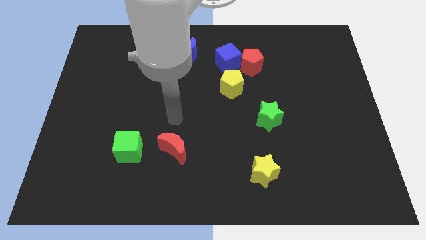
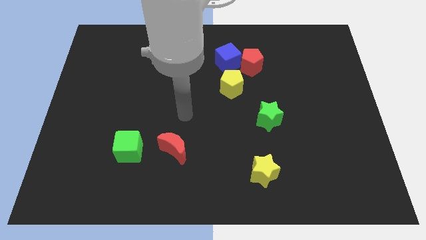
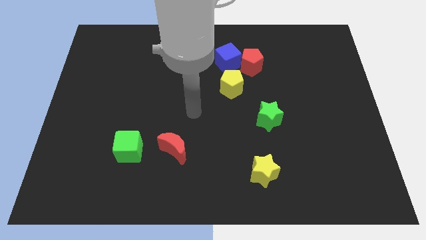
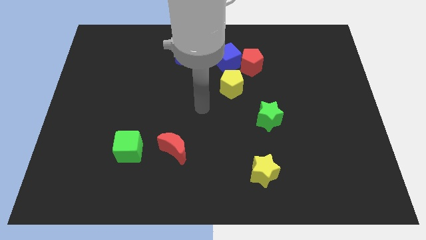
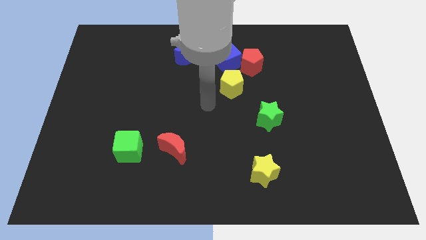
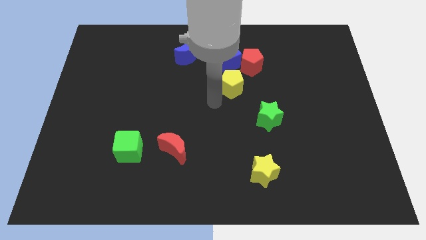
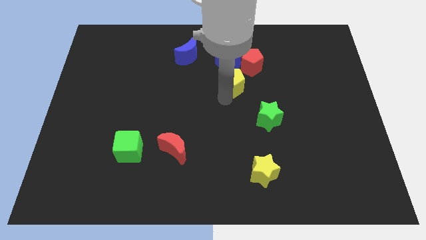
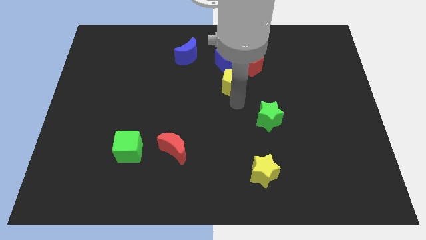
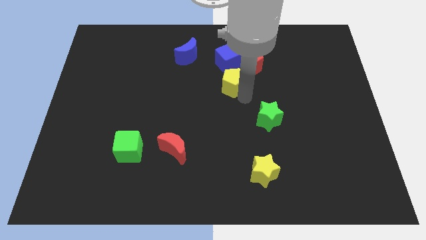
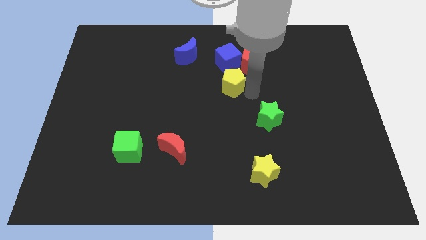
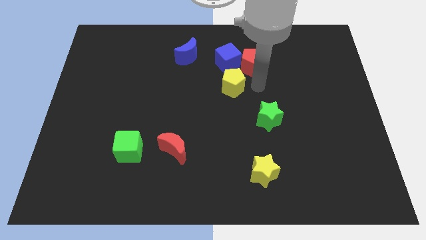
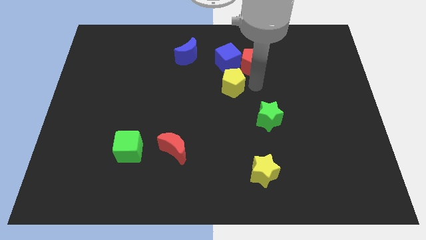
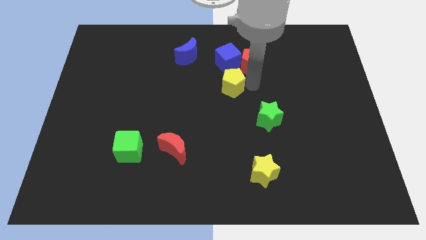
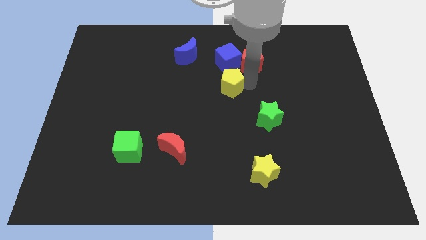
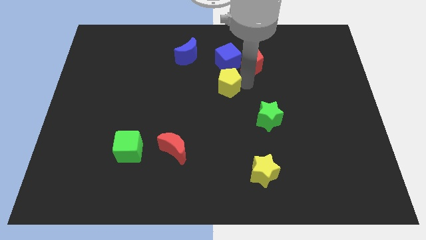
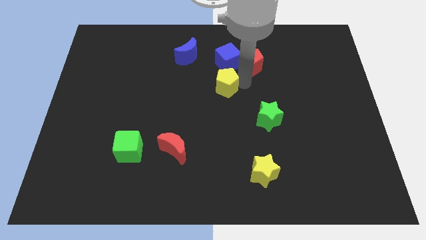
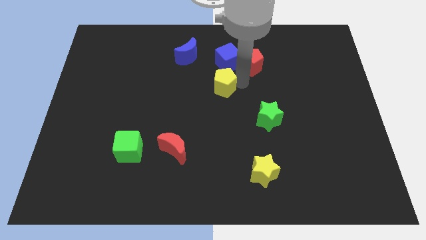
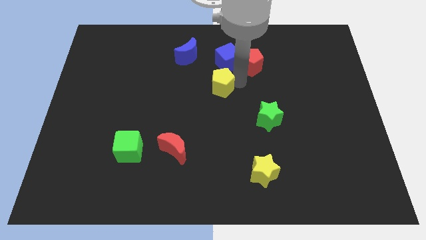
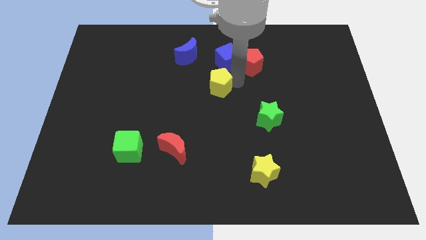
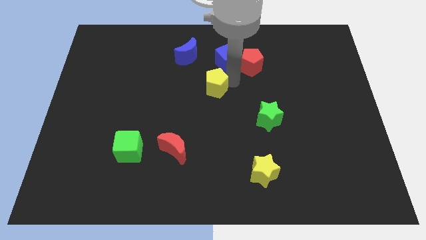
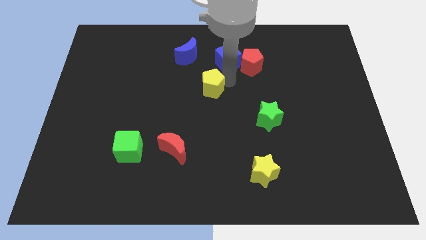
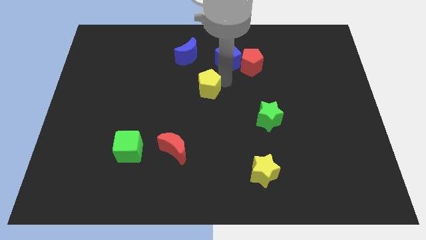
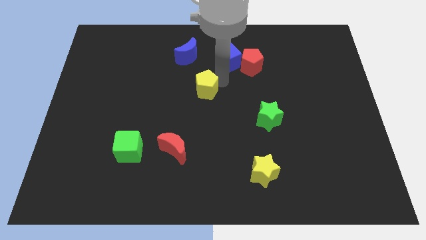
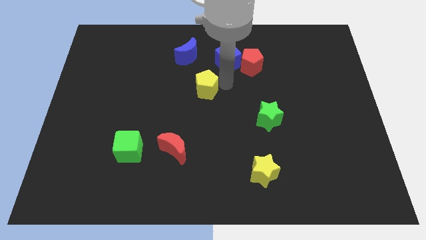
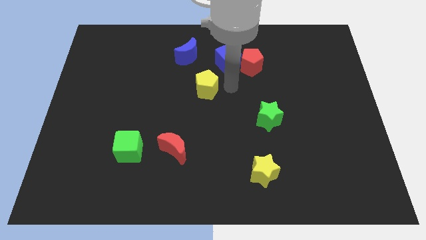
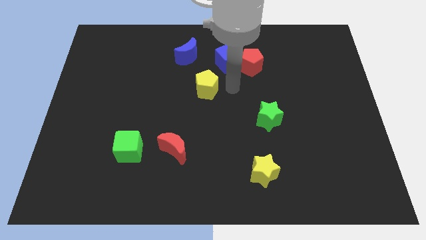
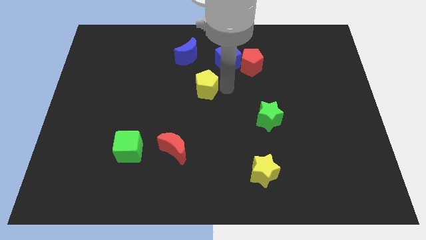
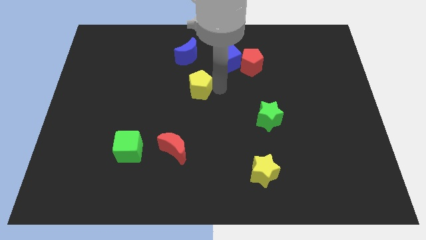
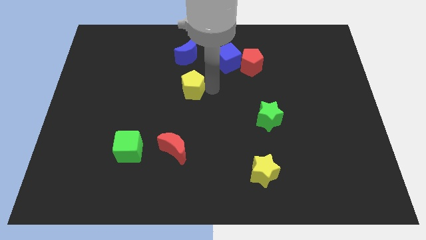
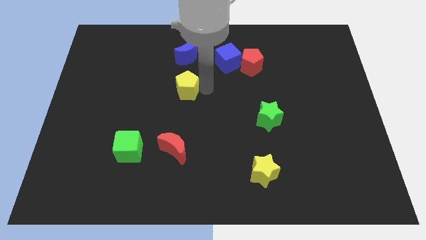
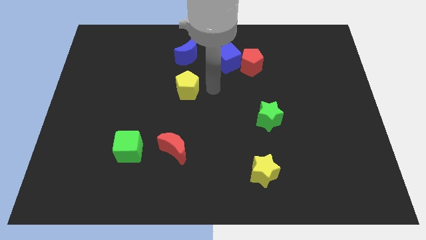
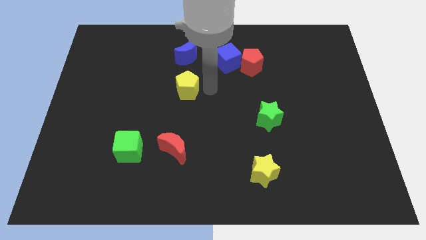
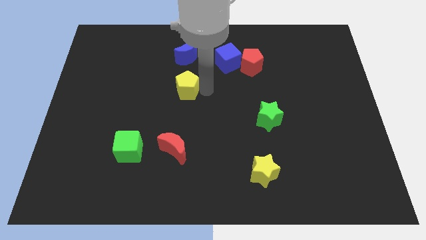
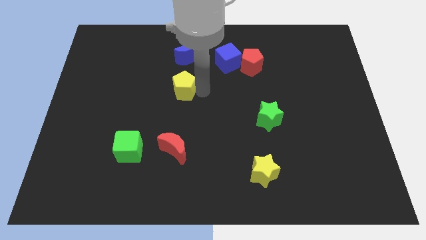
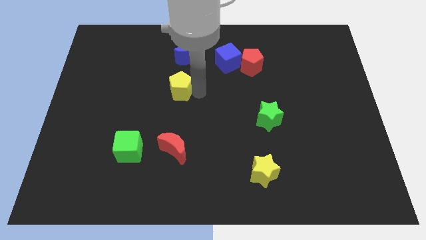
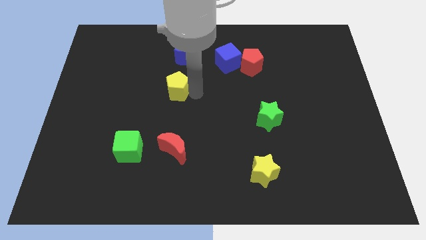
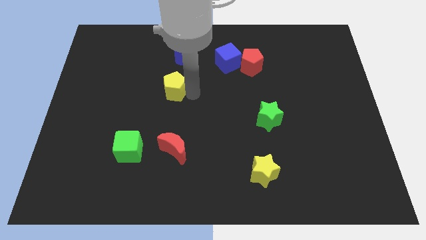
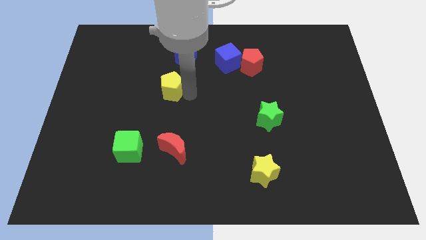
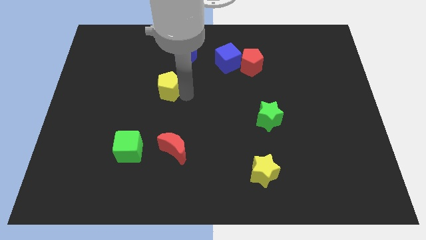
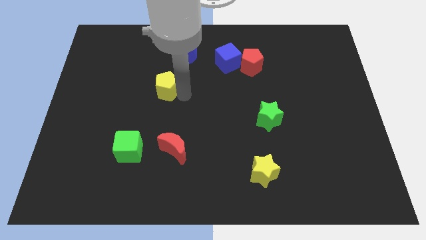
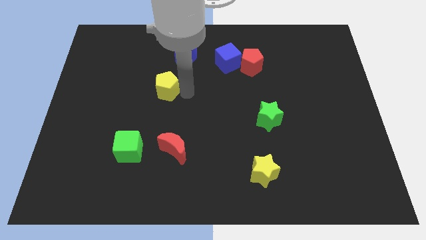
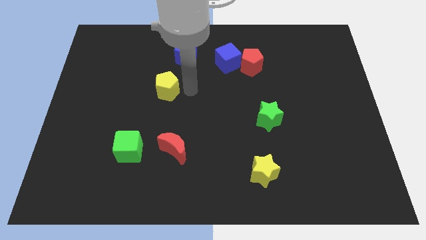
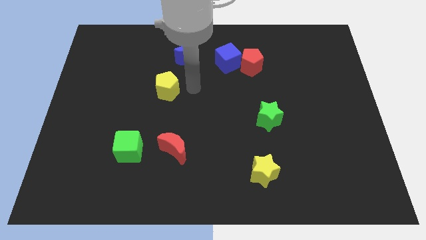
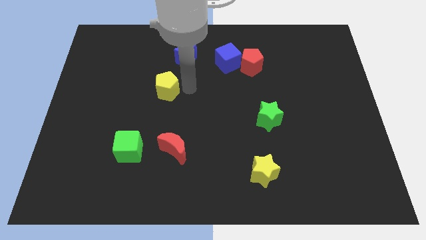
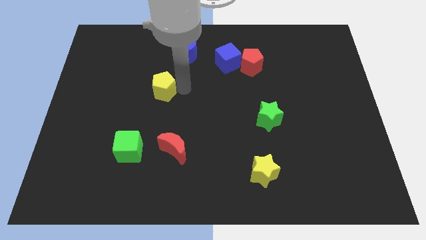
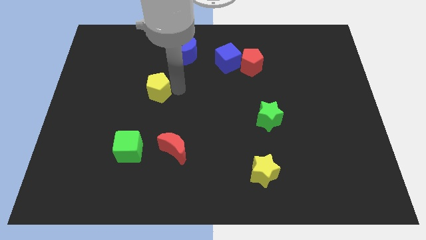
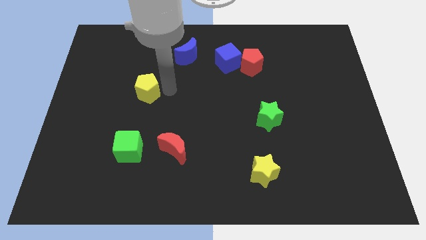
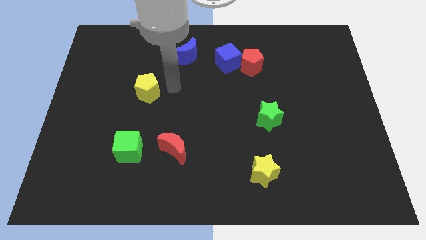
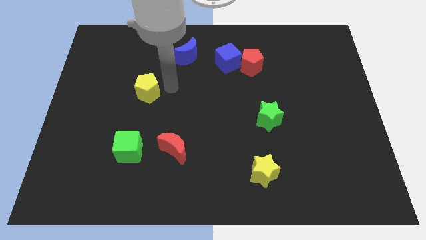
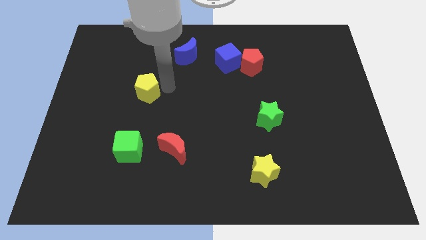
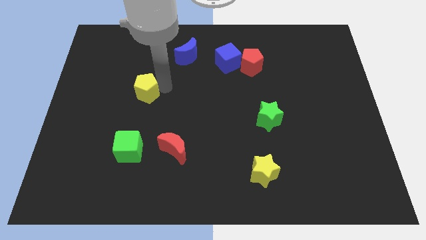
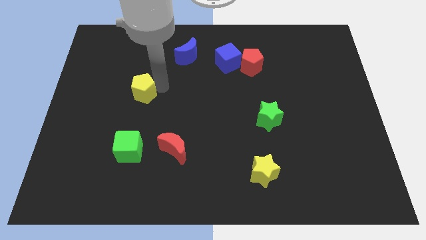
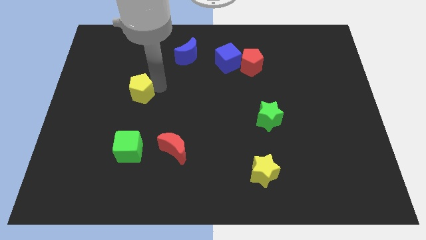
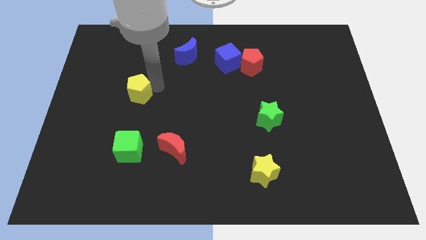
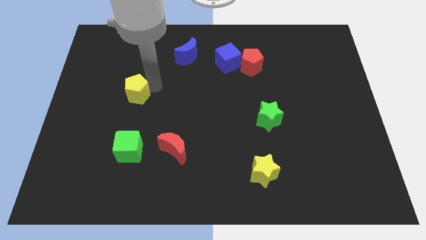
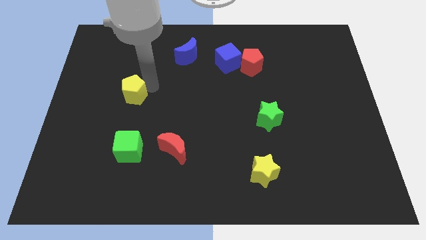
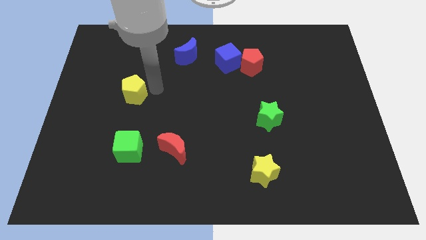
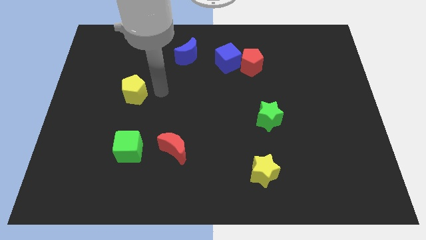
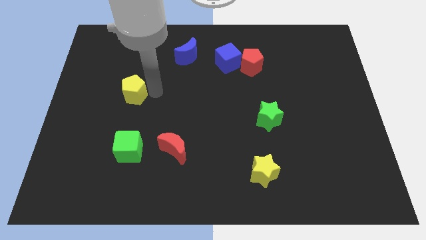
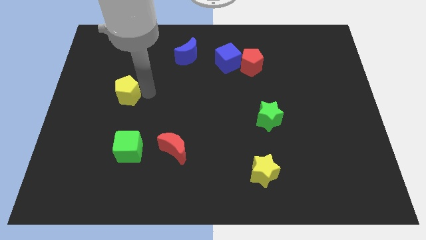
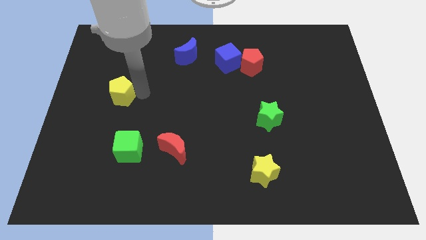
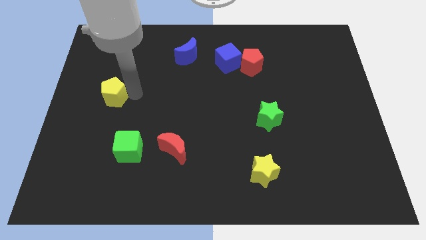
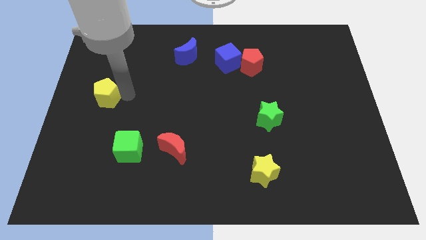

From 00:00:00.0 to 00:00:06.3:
slide the yellow pentagon to the left side
